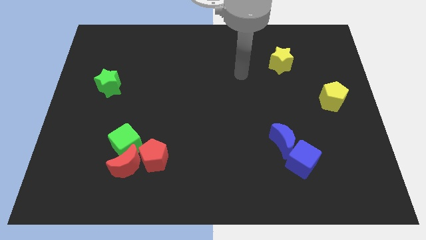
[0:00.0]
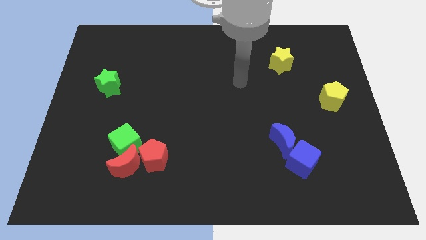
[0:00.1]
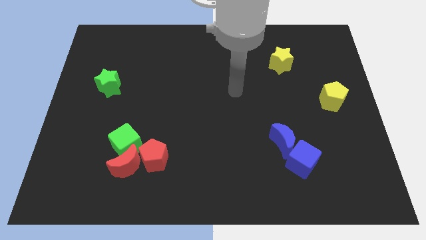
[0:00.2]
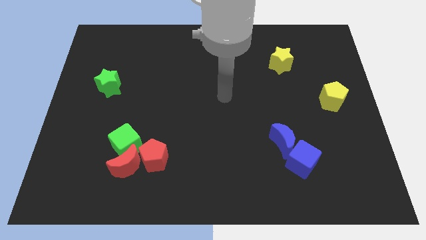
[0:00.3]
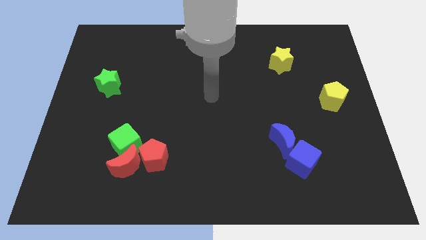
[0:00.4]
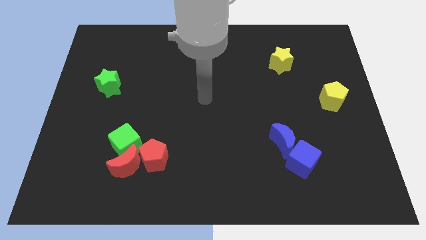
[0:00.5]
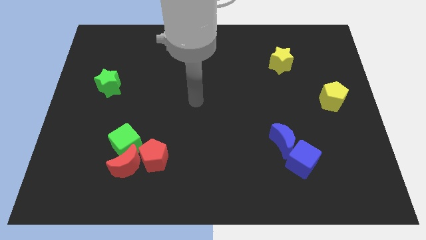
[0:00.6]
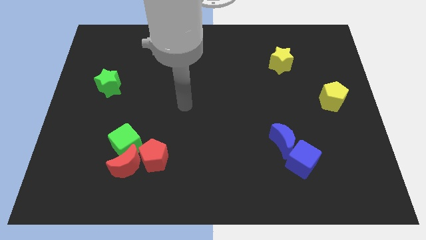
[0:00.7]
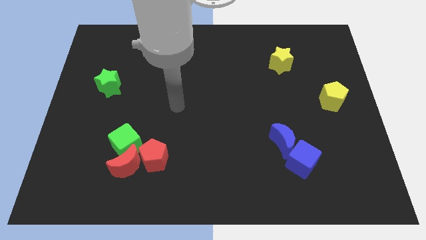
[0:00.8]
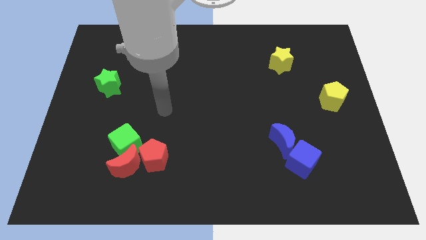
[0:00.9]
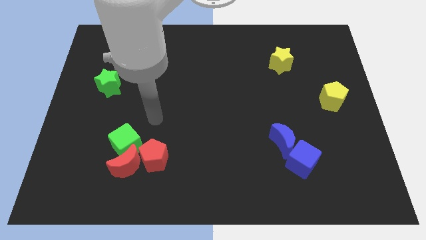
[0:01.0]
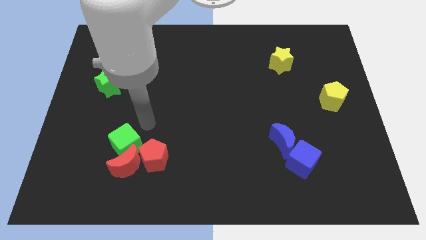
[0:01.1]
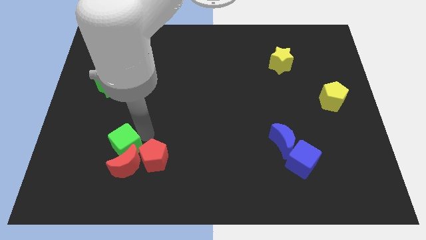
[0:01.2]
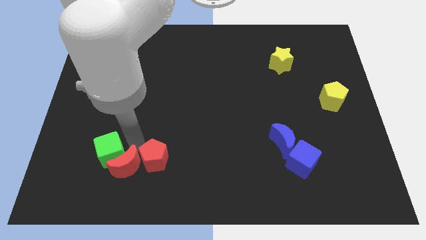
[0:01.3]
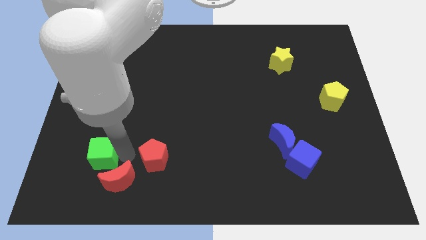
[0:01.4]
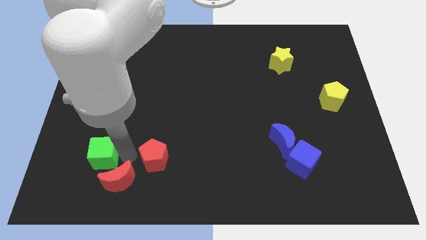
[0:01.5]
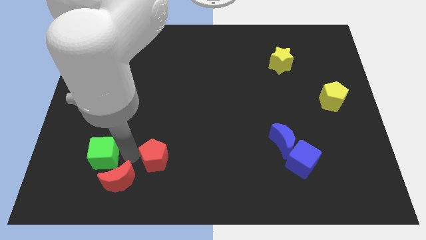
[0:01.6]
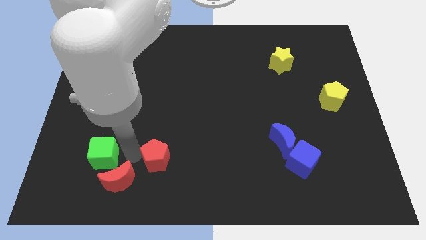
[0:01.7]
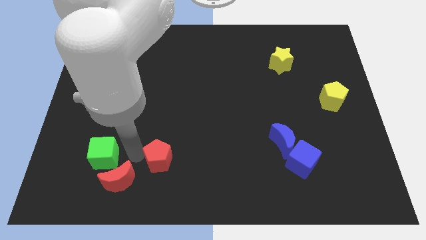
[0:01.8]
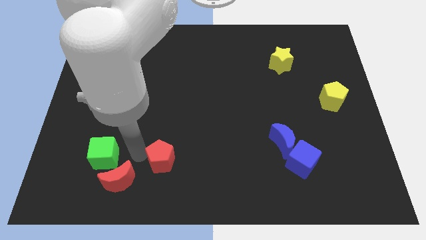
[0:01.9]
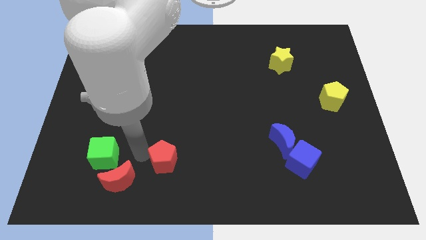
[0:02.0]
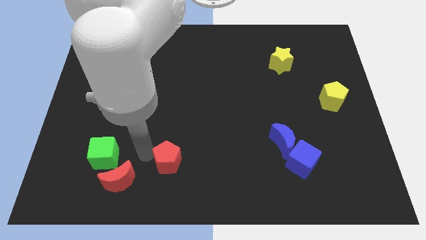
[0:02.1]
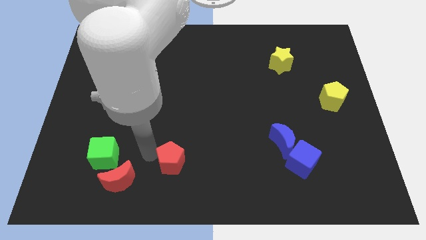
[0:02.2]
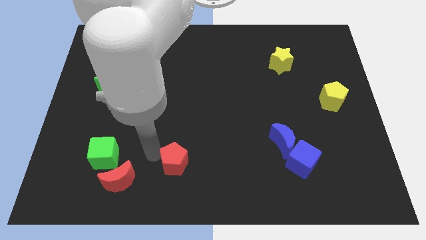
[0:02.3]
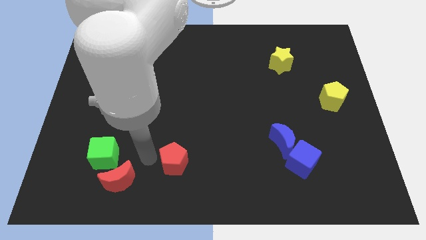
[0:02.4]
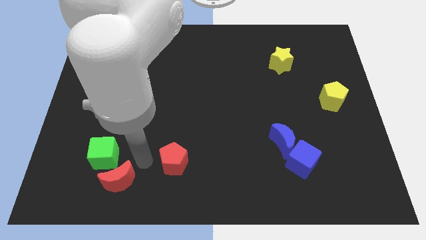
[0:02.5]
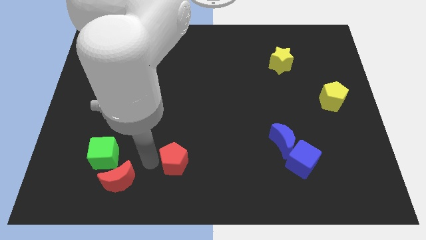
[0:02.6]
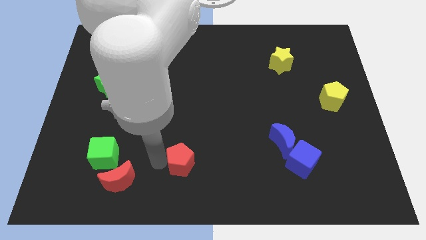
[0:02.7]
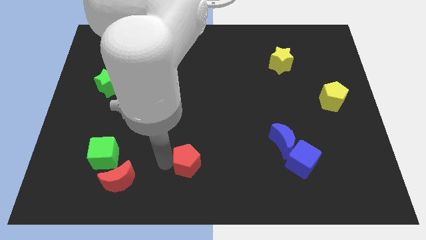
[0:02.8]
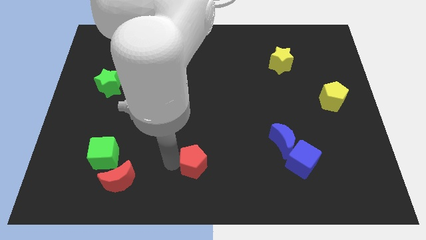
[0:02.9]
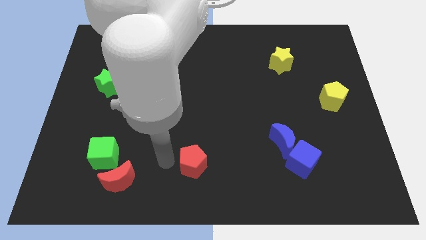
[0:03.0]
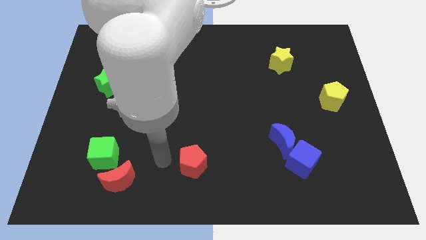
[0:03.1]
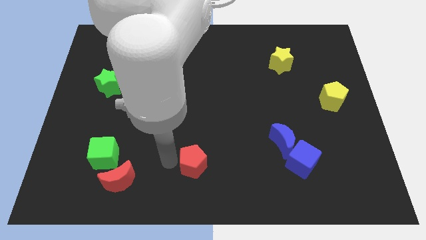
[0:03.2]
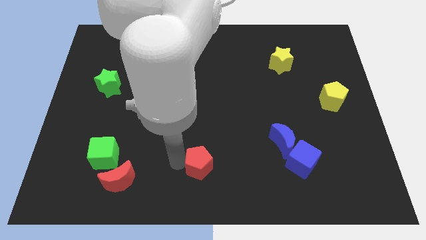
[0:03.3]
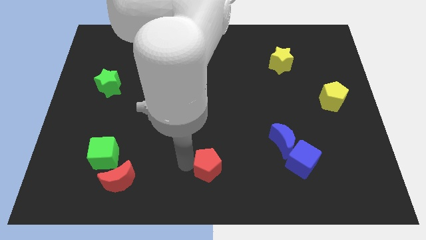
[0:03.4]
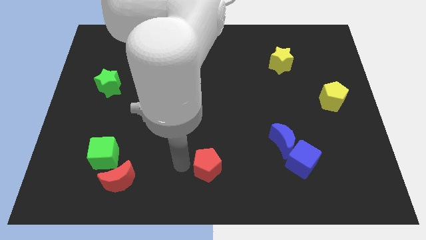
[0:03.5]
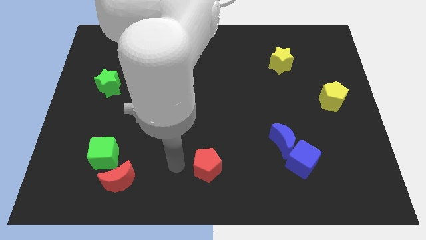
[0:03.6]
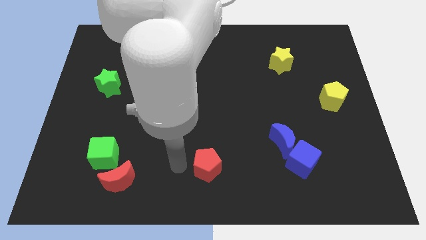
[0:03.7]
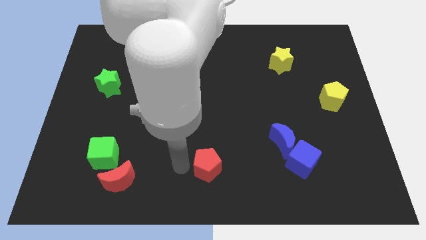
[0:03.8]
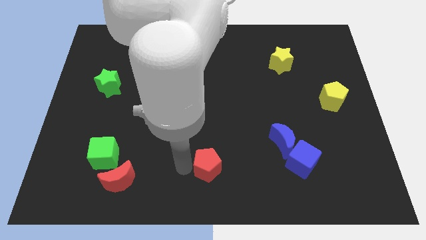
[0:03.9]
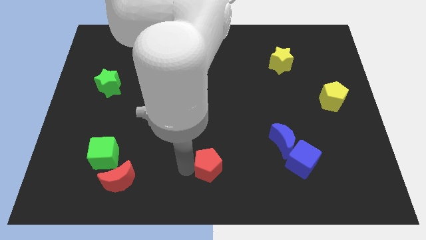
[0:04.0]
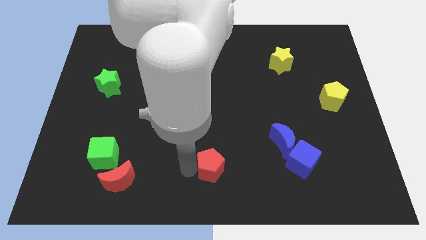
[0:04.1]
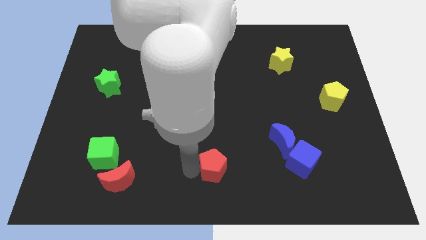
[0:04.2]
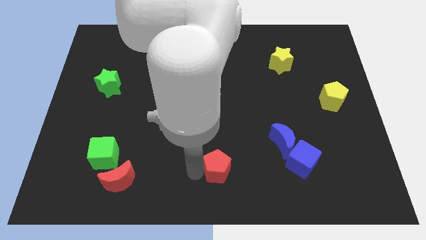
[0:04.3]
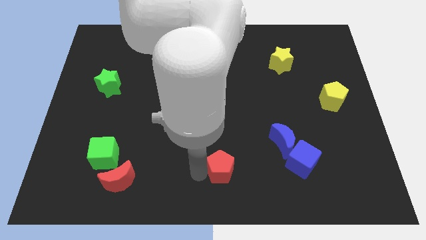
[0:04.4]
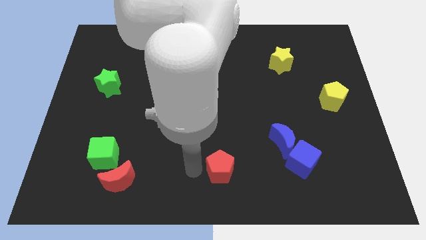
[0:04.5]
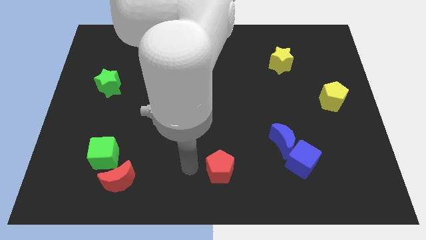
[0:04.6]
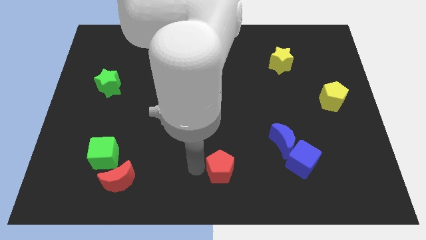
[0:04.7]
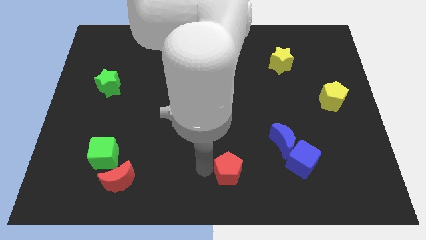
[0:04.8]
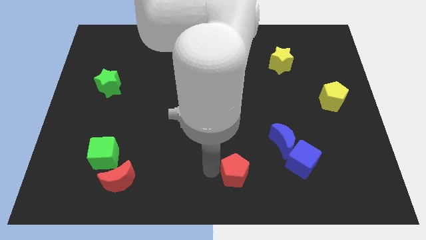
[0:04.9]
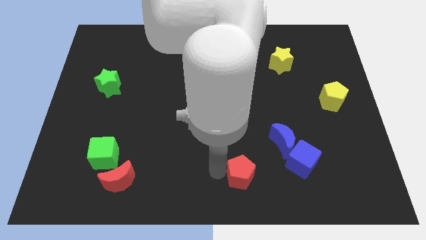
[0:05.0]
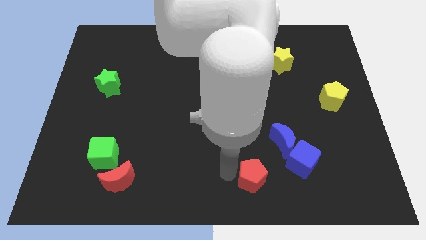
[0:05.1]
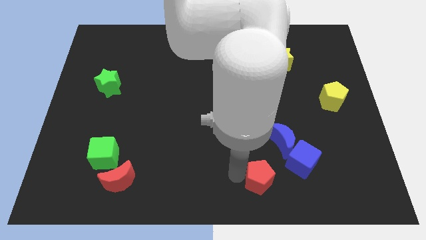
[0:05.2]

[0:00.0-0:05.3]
put the red pentagon diagonally down and to the left of the blue cube

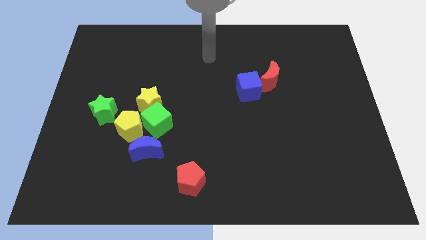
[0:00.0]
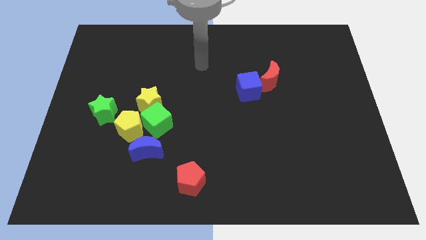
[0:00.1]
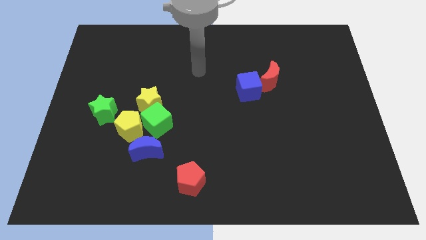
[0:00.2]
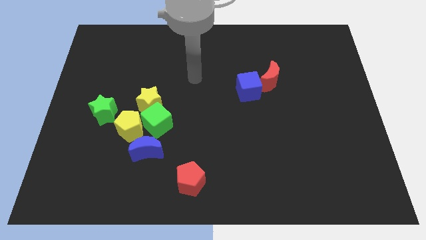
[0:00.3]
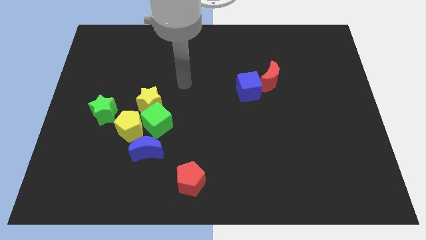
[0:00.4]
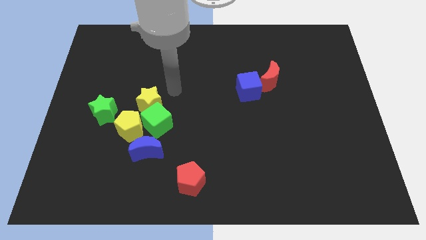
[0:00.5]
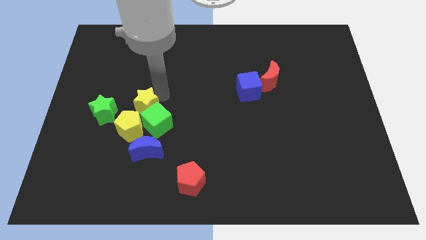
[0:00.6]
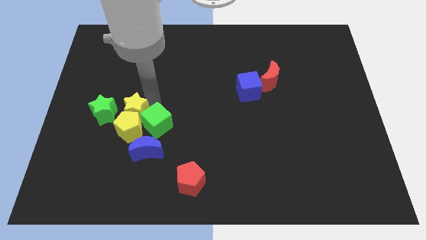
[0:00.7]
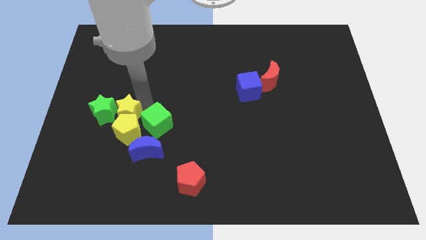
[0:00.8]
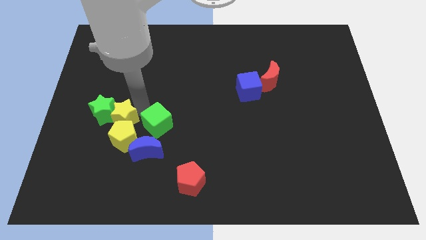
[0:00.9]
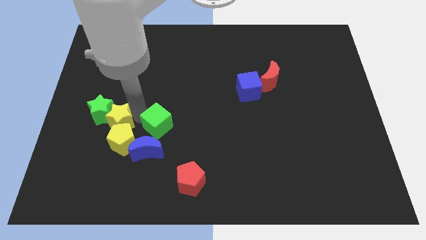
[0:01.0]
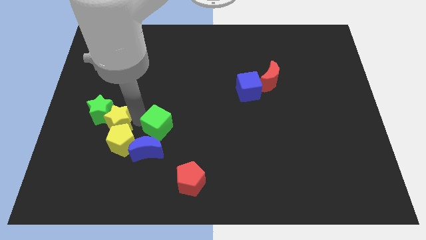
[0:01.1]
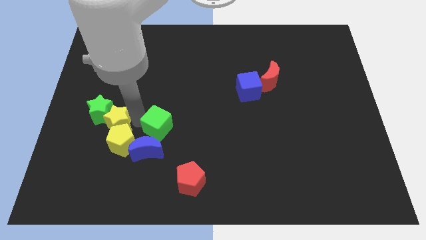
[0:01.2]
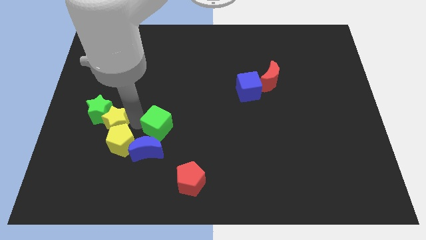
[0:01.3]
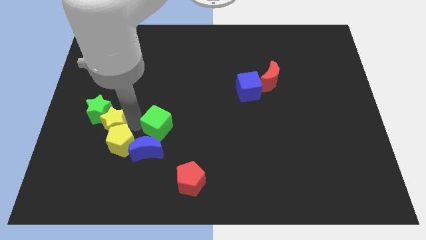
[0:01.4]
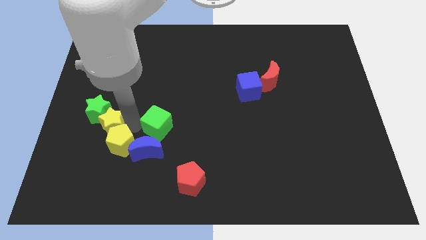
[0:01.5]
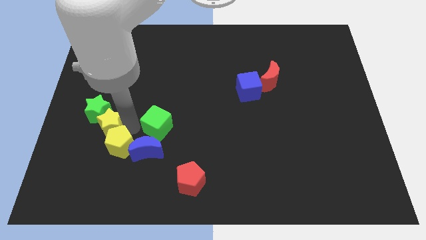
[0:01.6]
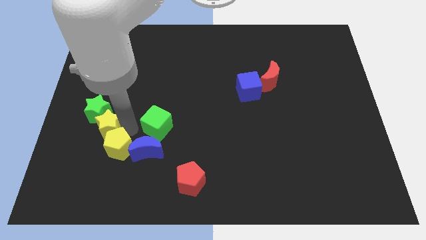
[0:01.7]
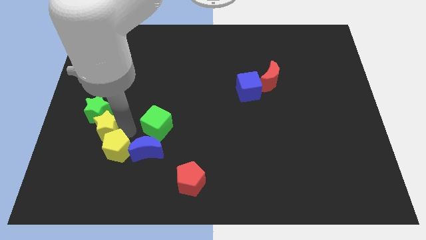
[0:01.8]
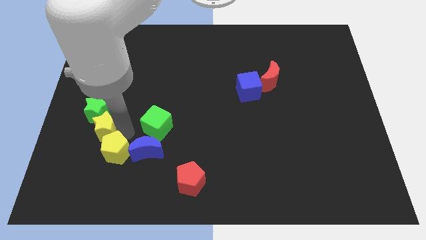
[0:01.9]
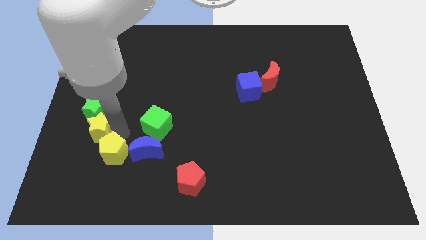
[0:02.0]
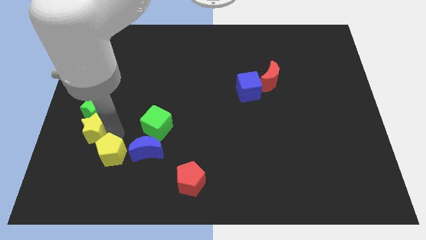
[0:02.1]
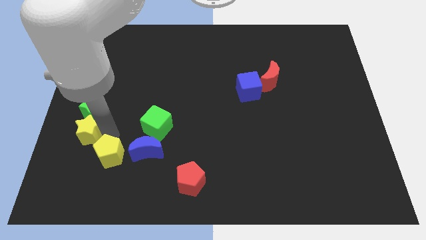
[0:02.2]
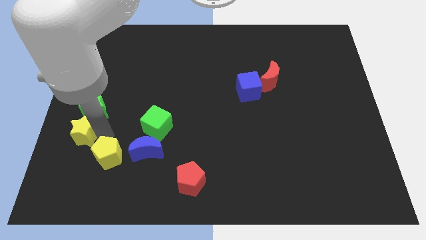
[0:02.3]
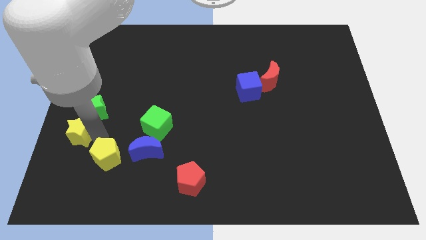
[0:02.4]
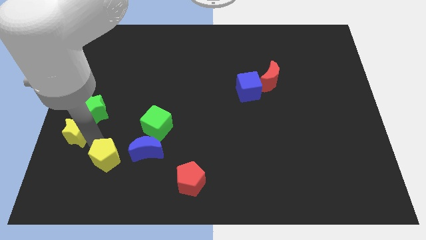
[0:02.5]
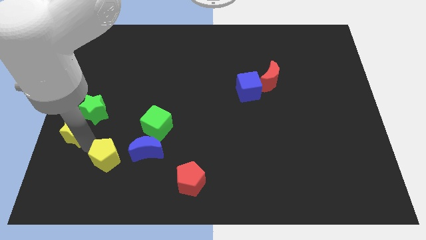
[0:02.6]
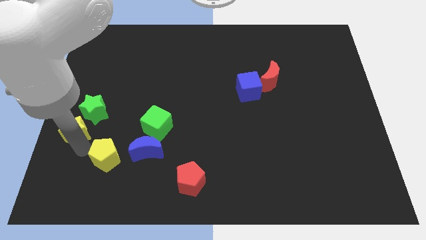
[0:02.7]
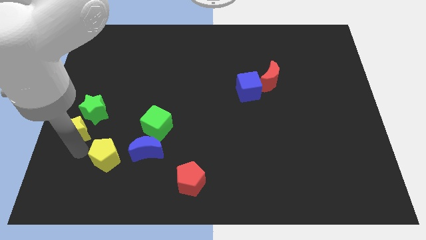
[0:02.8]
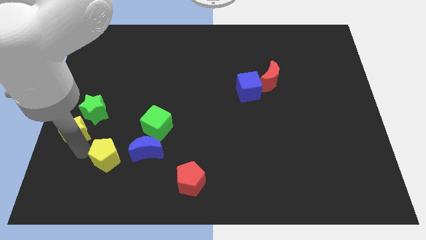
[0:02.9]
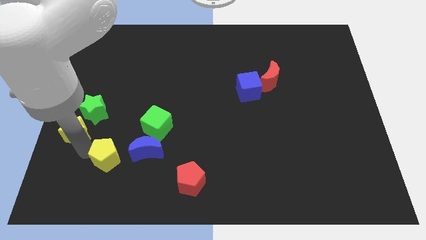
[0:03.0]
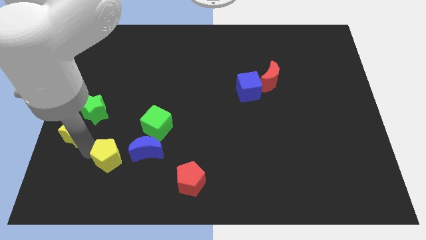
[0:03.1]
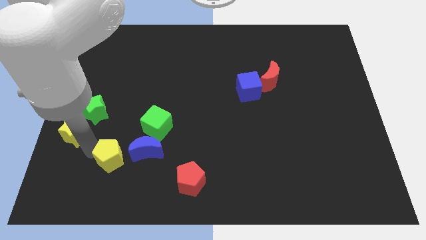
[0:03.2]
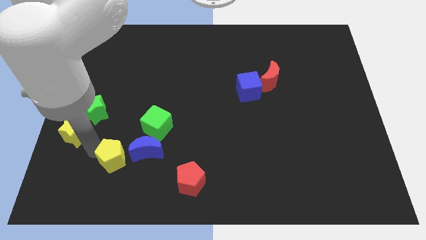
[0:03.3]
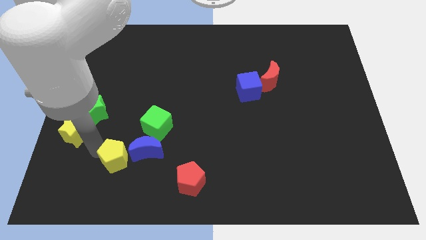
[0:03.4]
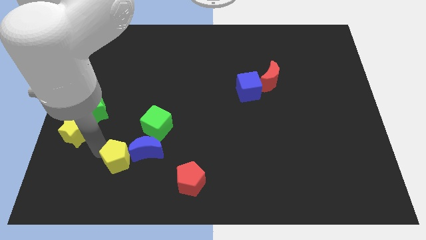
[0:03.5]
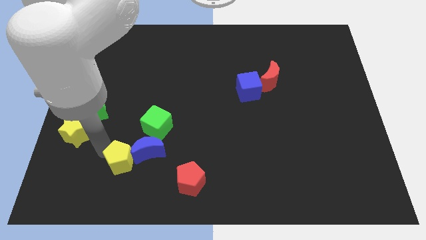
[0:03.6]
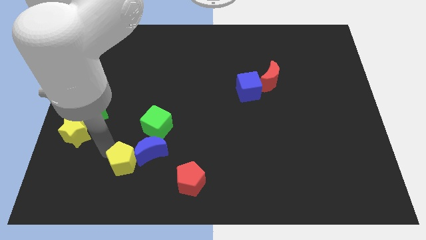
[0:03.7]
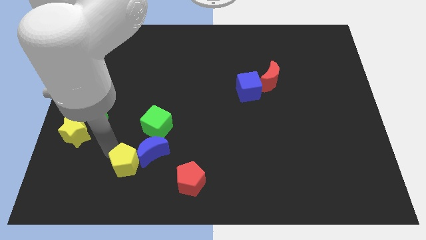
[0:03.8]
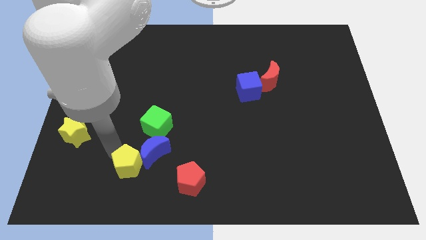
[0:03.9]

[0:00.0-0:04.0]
put the yellow pentagon to the bottom side of the green cube
